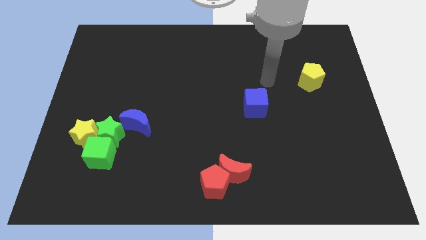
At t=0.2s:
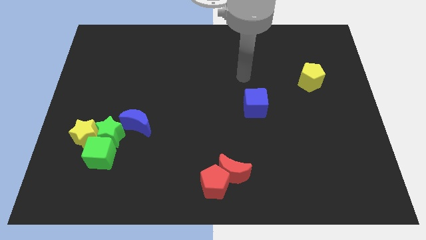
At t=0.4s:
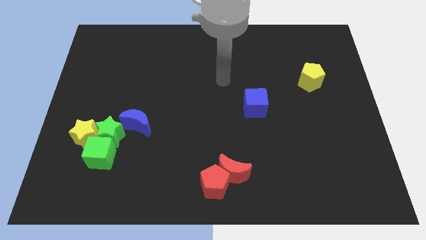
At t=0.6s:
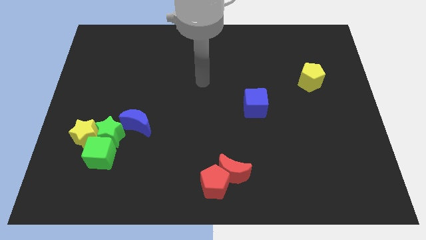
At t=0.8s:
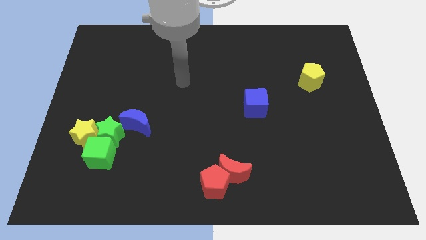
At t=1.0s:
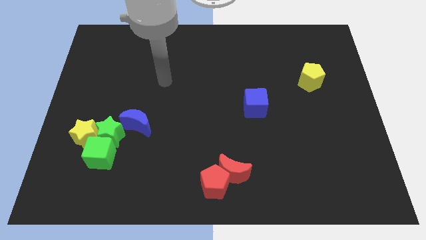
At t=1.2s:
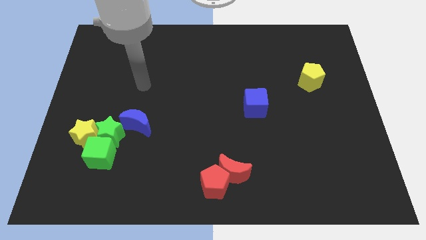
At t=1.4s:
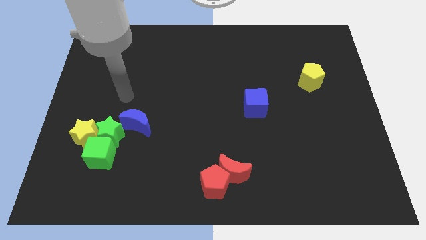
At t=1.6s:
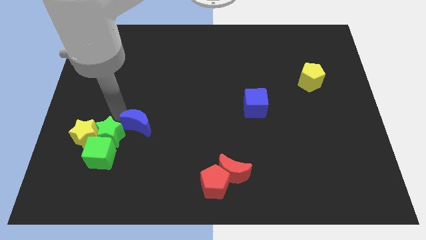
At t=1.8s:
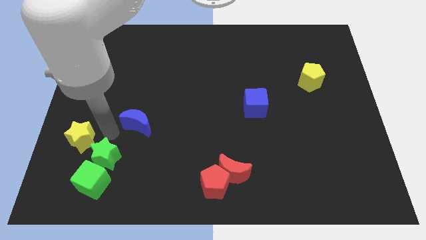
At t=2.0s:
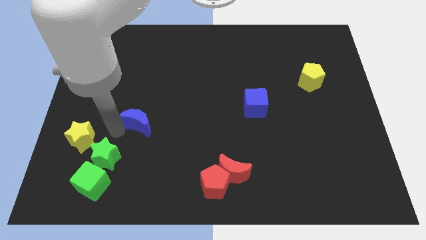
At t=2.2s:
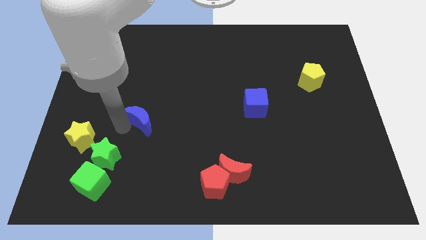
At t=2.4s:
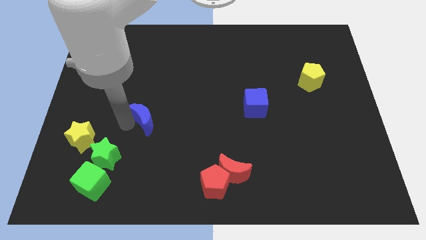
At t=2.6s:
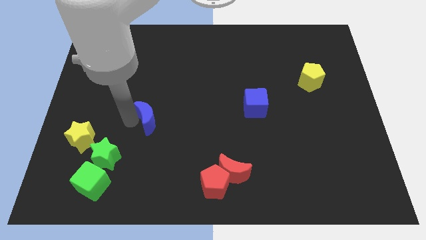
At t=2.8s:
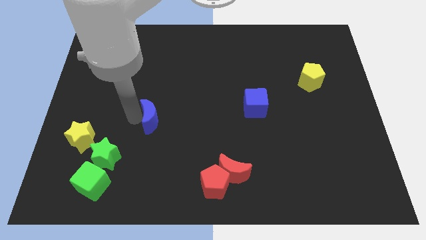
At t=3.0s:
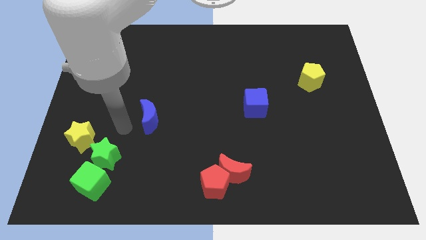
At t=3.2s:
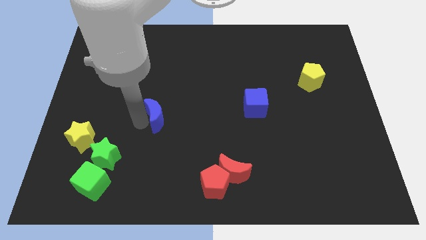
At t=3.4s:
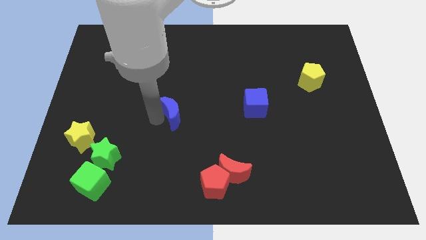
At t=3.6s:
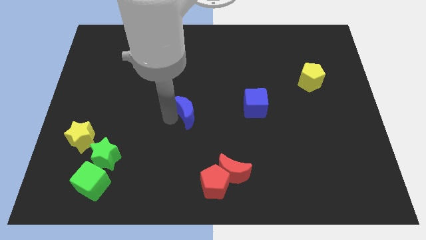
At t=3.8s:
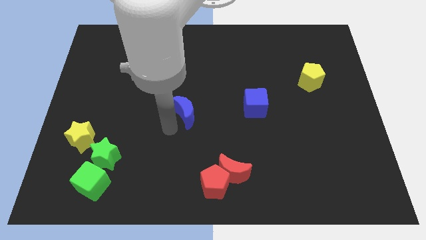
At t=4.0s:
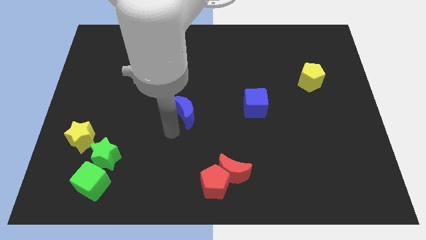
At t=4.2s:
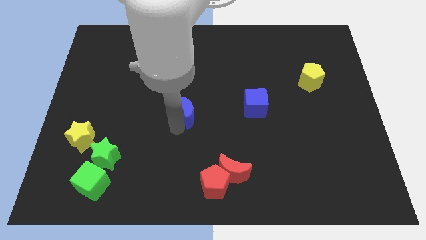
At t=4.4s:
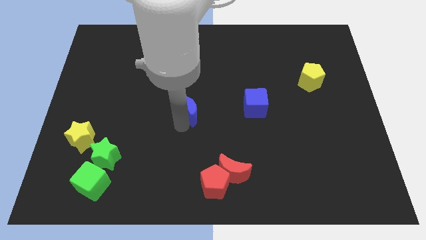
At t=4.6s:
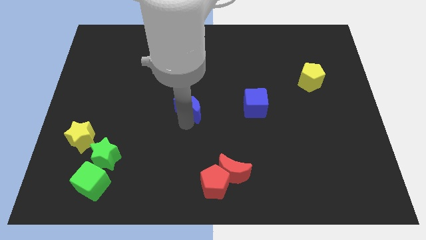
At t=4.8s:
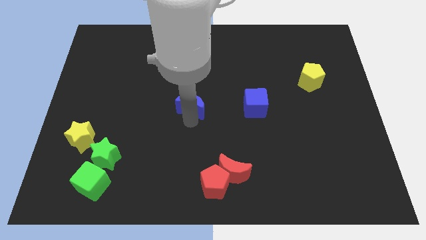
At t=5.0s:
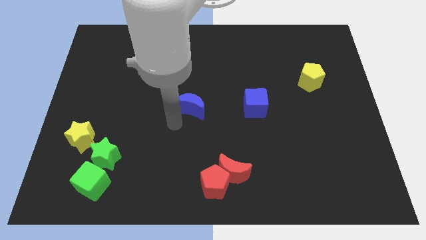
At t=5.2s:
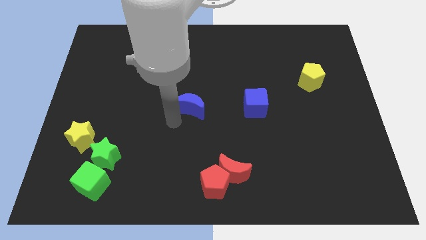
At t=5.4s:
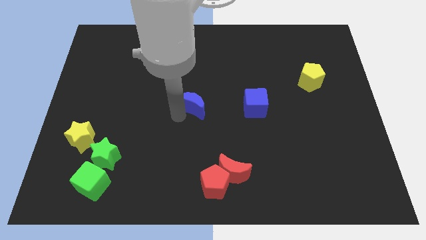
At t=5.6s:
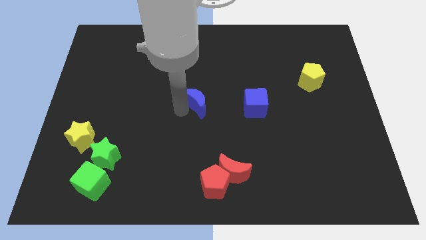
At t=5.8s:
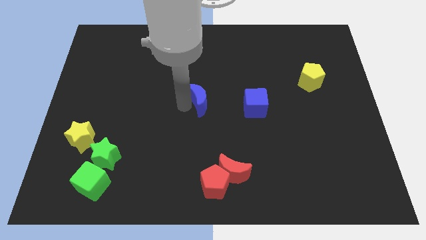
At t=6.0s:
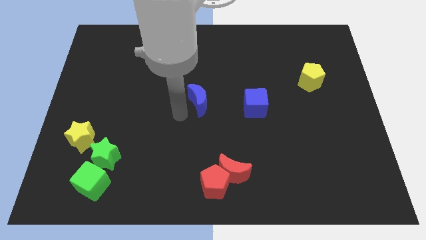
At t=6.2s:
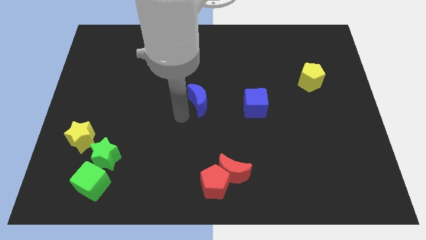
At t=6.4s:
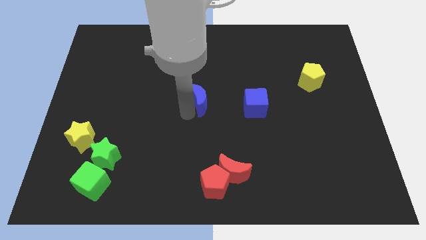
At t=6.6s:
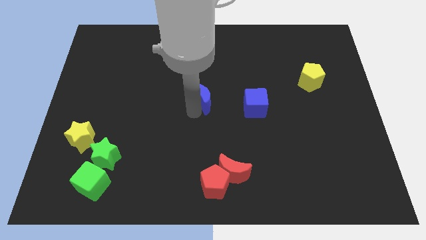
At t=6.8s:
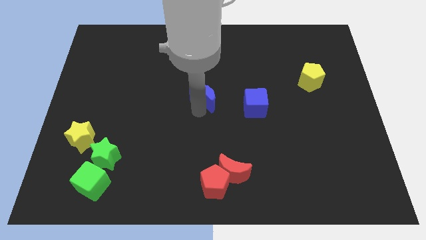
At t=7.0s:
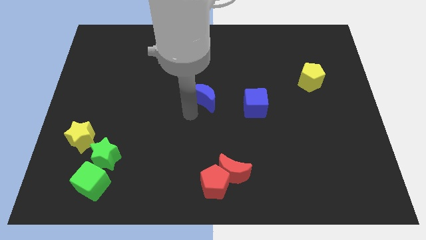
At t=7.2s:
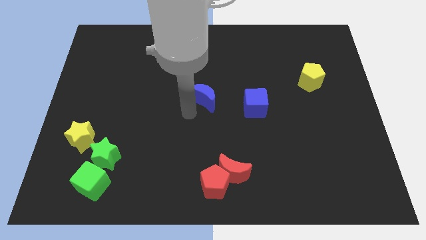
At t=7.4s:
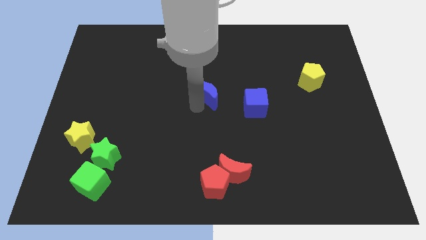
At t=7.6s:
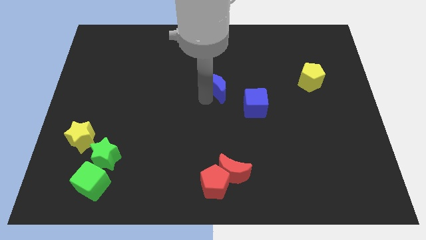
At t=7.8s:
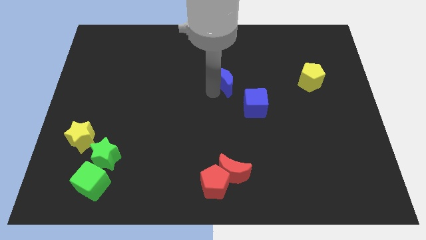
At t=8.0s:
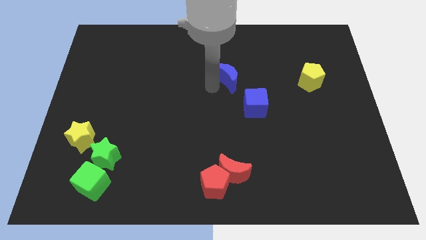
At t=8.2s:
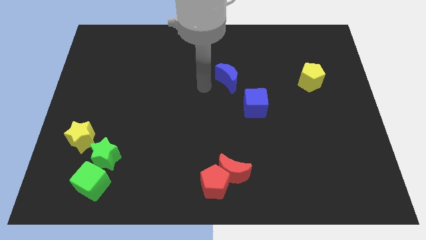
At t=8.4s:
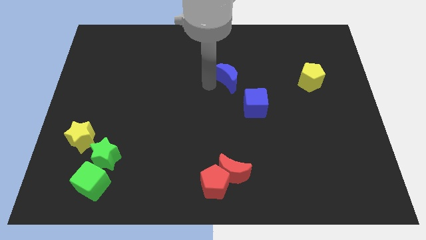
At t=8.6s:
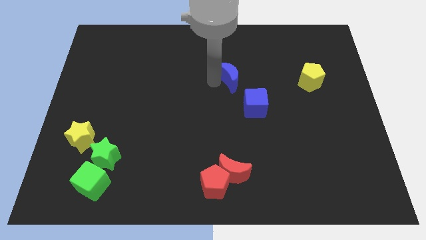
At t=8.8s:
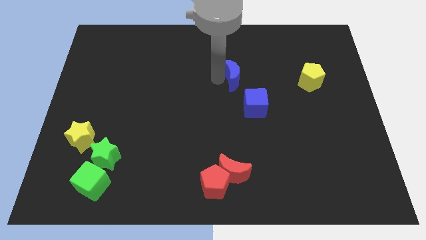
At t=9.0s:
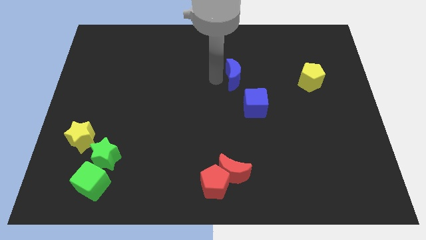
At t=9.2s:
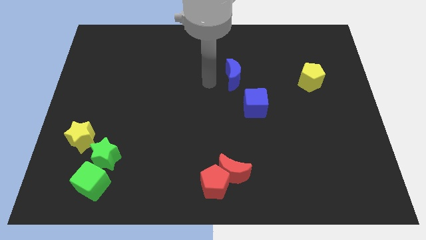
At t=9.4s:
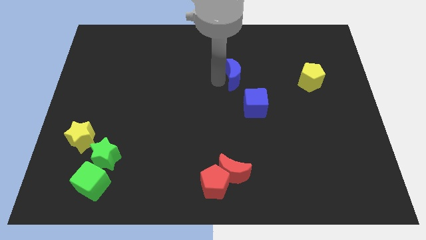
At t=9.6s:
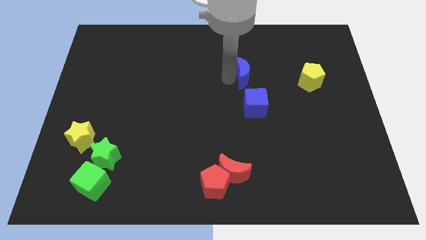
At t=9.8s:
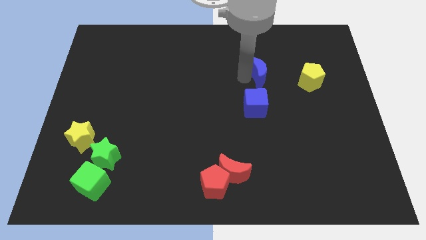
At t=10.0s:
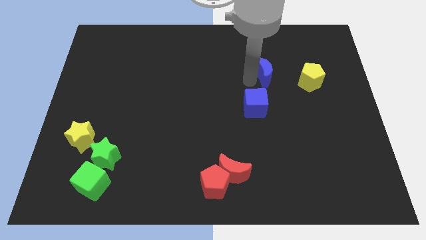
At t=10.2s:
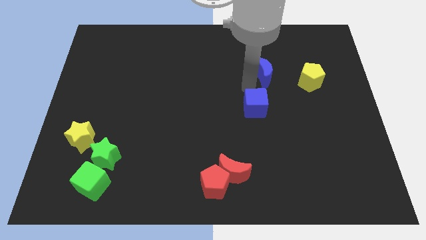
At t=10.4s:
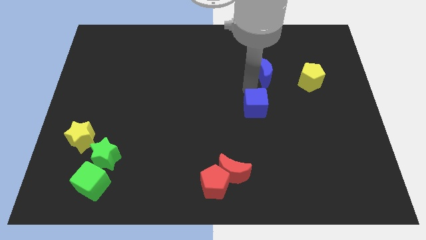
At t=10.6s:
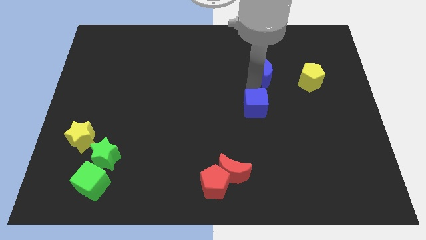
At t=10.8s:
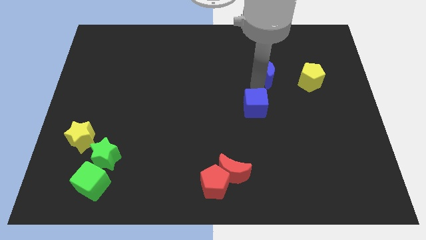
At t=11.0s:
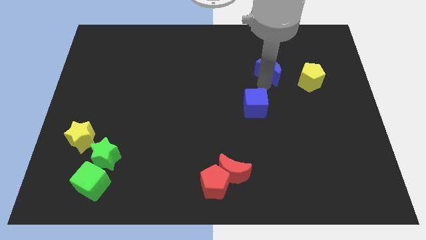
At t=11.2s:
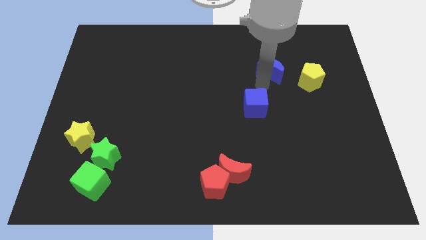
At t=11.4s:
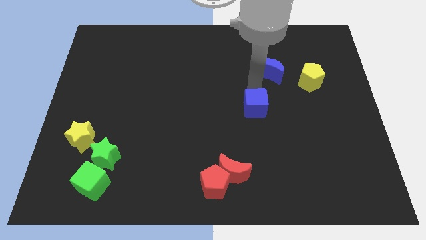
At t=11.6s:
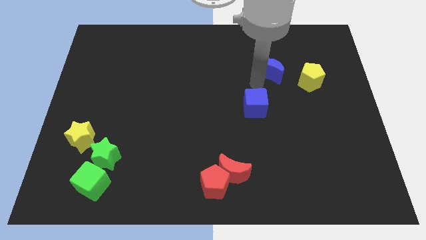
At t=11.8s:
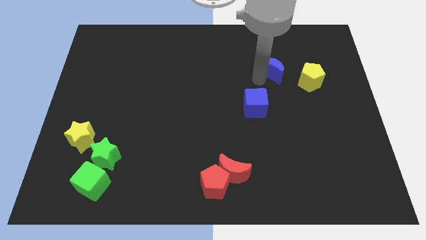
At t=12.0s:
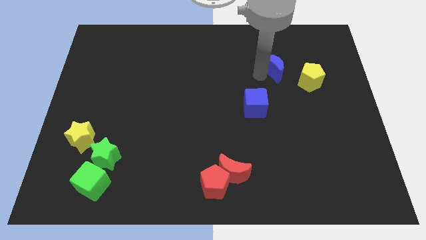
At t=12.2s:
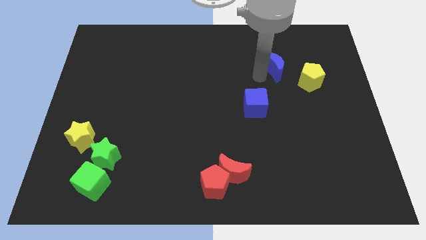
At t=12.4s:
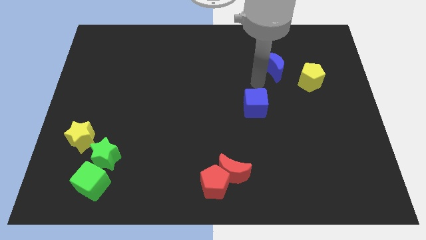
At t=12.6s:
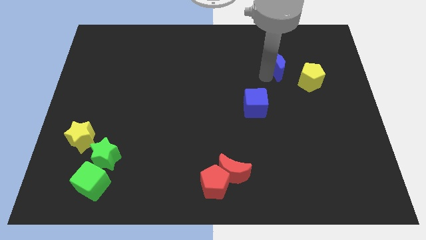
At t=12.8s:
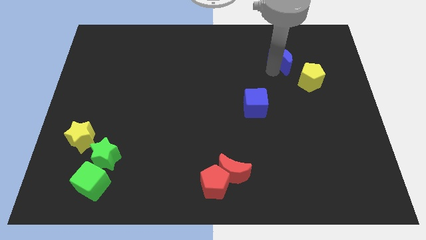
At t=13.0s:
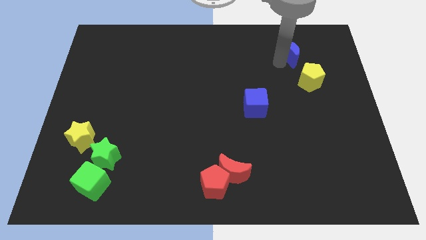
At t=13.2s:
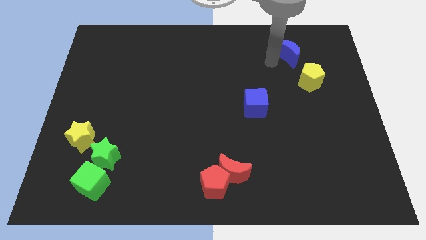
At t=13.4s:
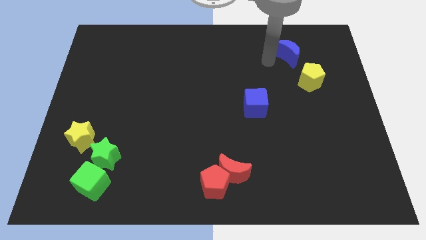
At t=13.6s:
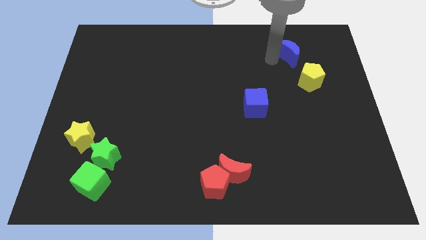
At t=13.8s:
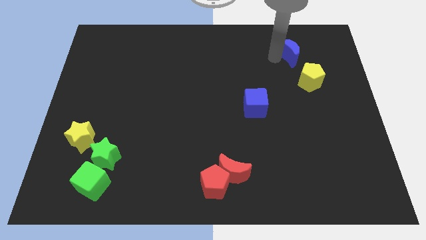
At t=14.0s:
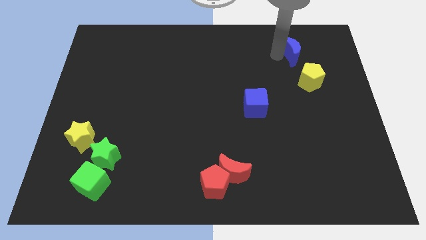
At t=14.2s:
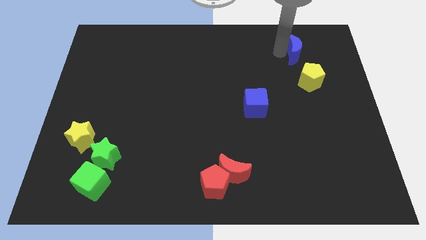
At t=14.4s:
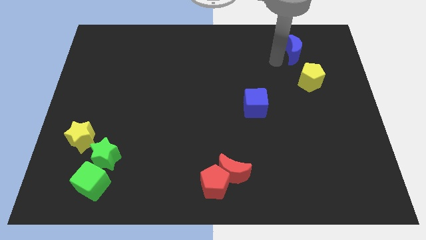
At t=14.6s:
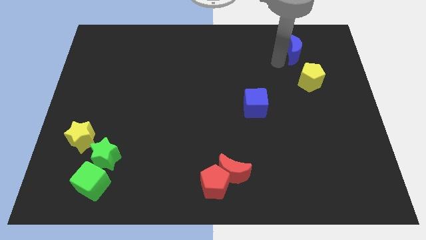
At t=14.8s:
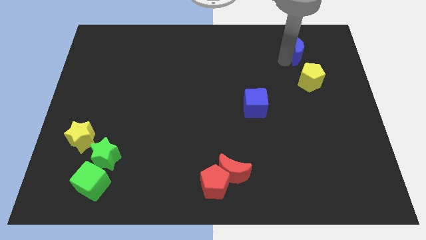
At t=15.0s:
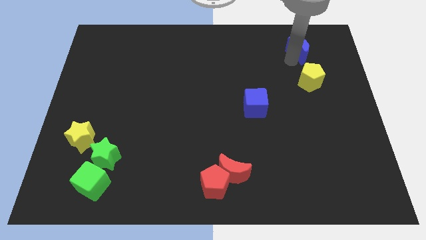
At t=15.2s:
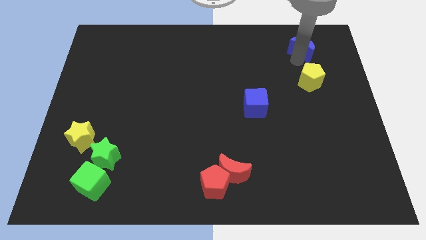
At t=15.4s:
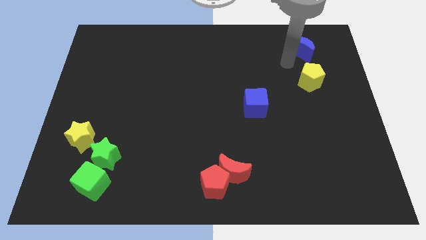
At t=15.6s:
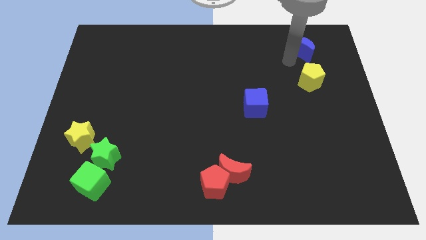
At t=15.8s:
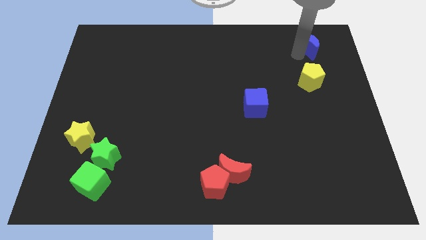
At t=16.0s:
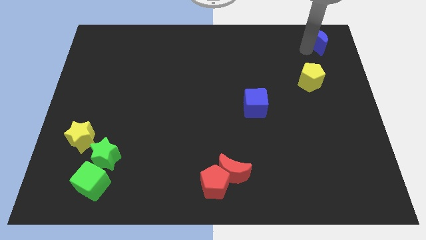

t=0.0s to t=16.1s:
slide the blue moon to the top right corner
